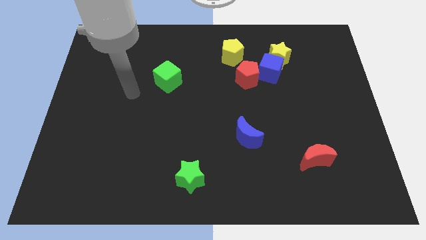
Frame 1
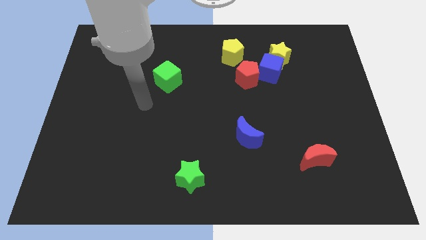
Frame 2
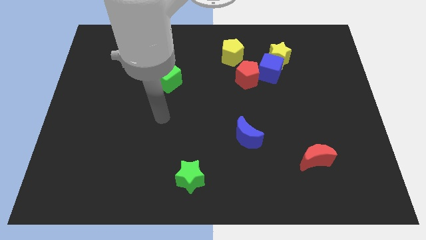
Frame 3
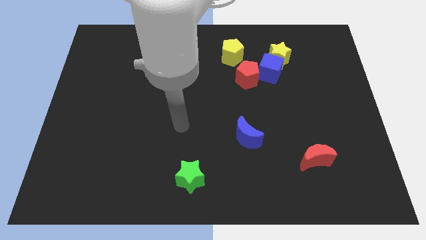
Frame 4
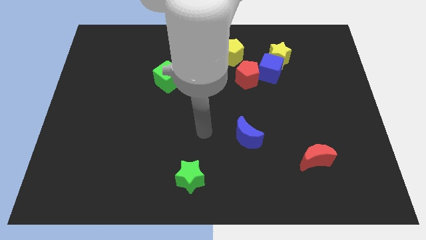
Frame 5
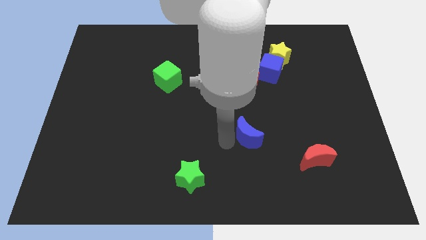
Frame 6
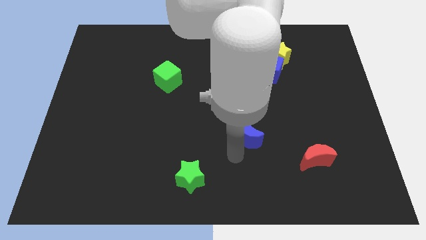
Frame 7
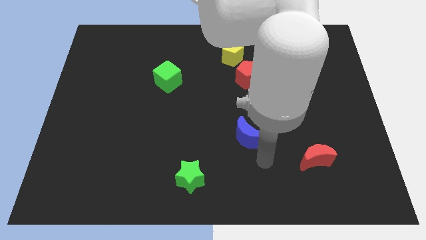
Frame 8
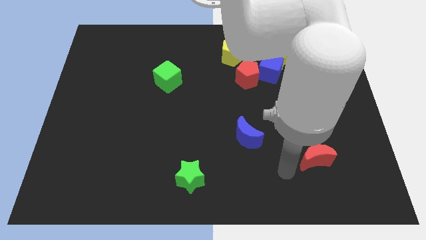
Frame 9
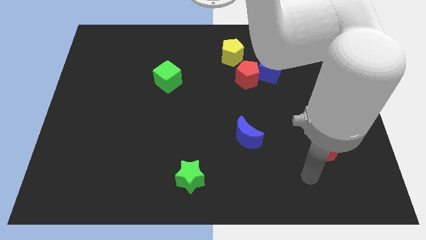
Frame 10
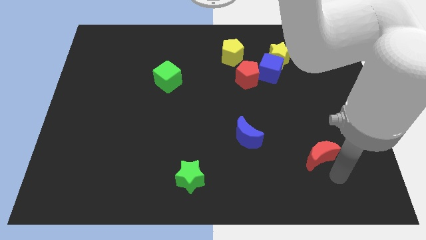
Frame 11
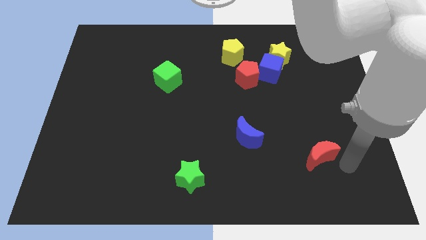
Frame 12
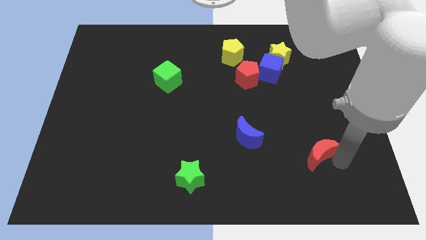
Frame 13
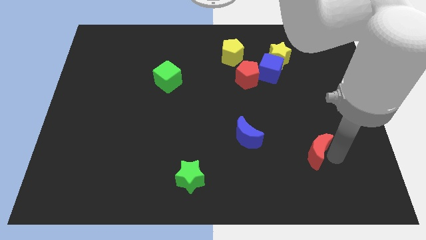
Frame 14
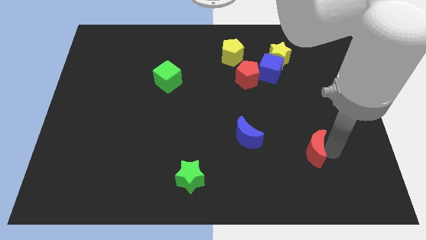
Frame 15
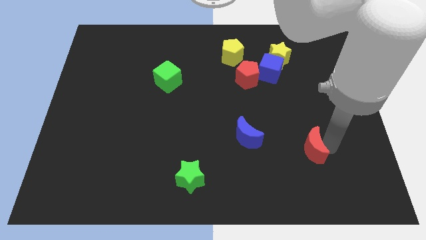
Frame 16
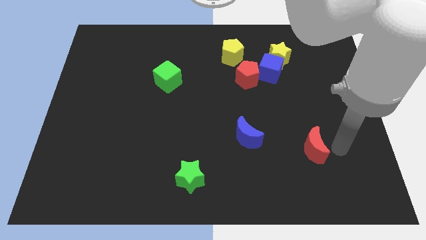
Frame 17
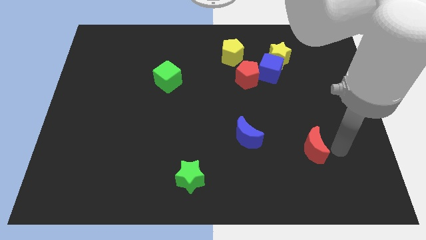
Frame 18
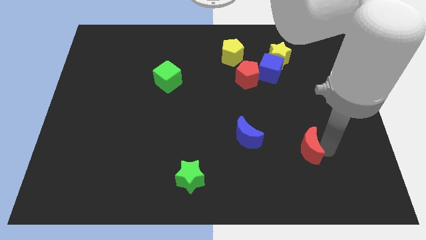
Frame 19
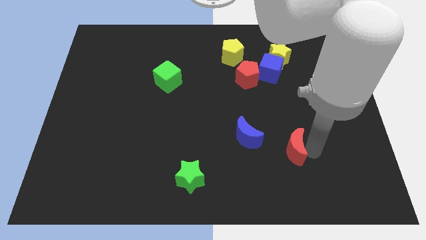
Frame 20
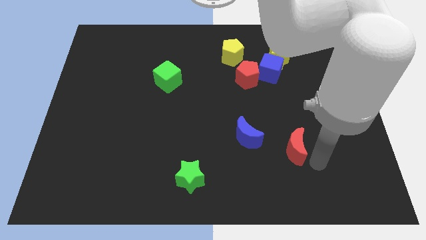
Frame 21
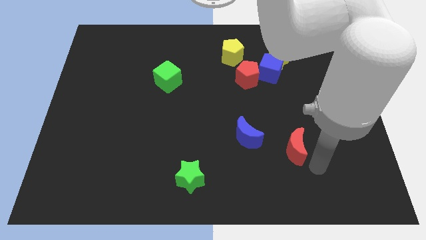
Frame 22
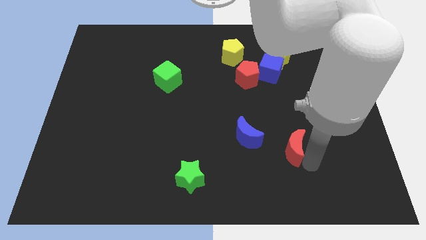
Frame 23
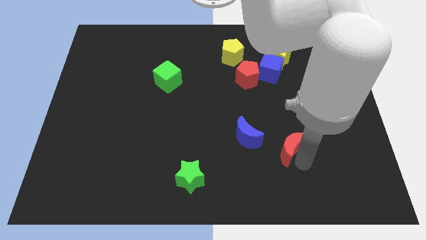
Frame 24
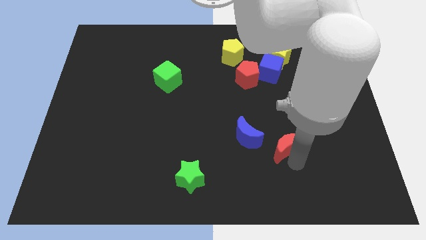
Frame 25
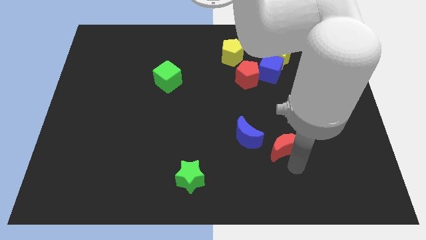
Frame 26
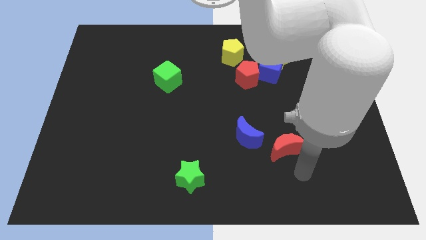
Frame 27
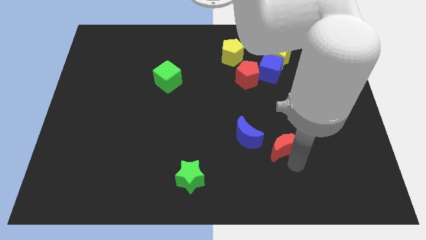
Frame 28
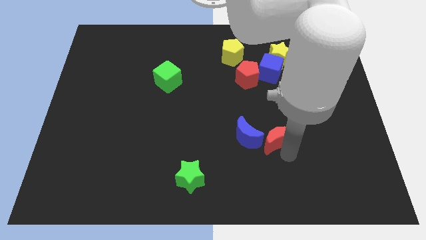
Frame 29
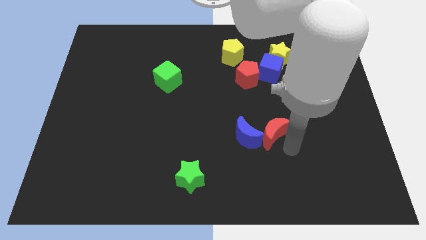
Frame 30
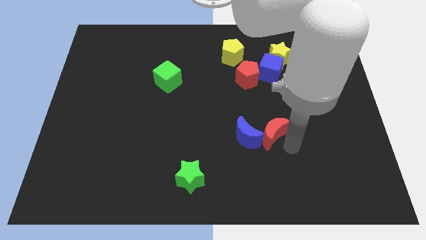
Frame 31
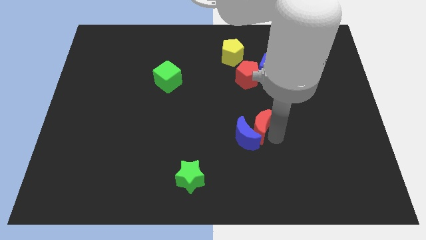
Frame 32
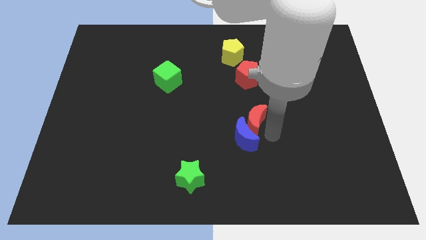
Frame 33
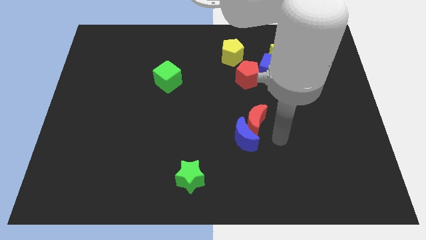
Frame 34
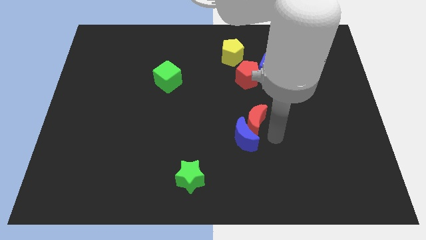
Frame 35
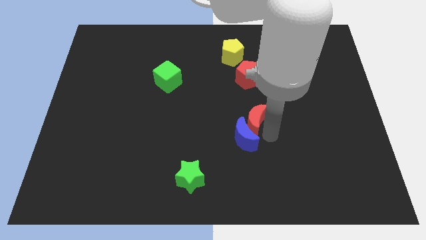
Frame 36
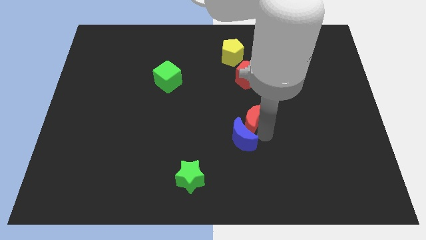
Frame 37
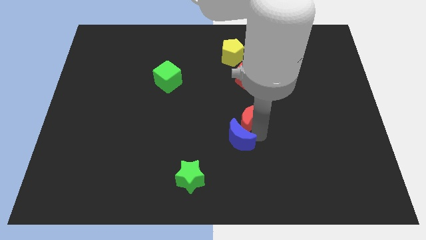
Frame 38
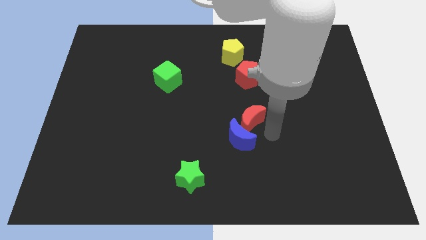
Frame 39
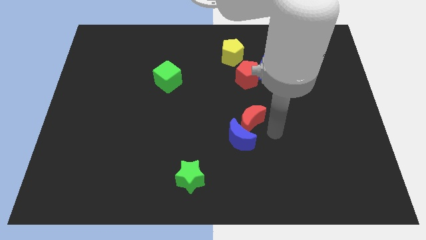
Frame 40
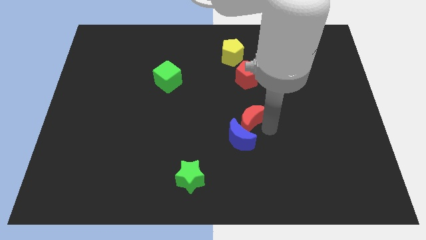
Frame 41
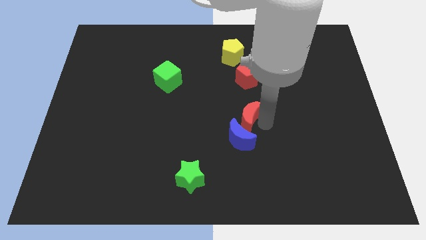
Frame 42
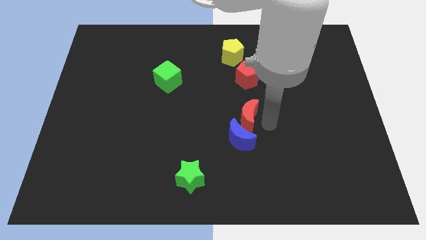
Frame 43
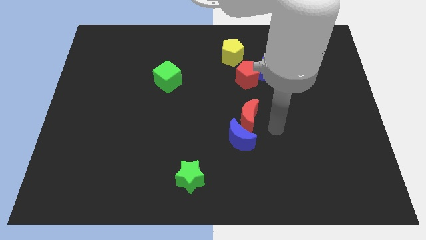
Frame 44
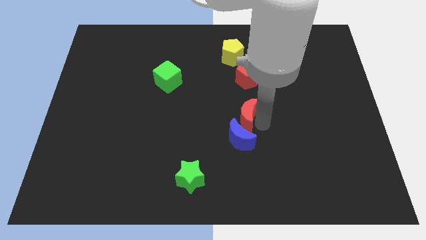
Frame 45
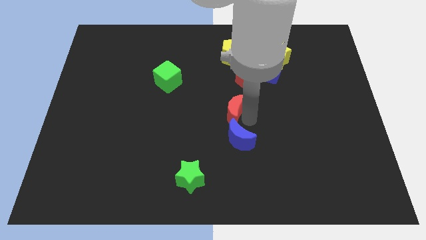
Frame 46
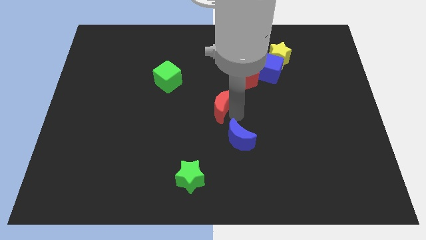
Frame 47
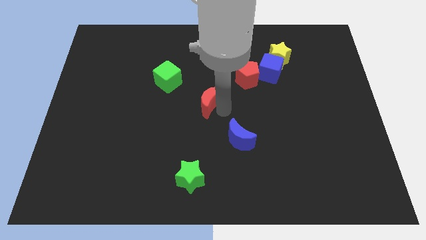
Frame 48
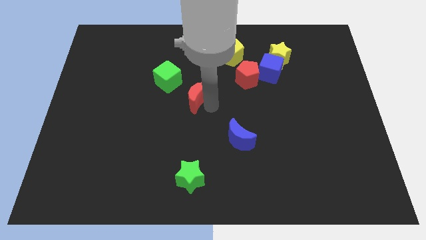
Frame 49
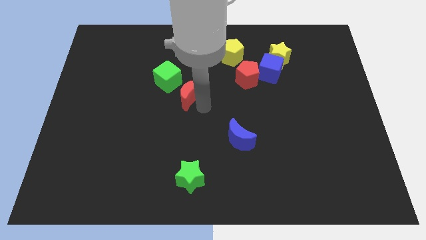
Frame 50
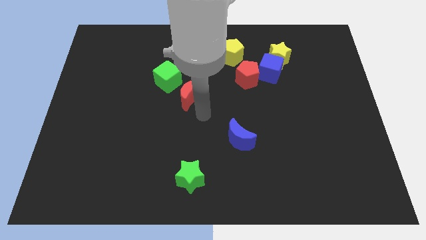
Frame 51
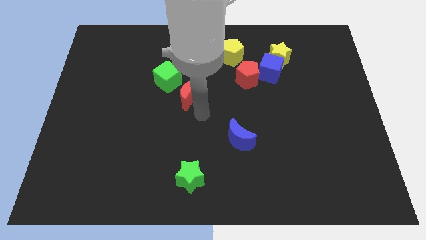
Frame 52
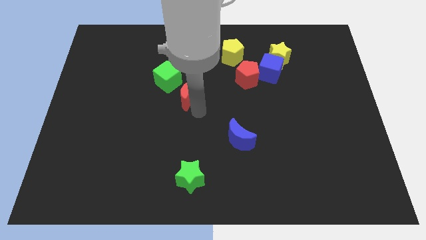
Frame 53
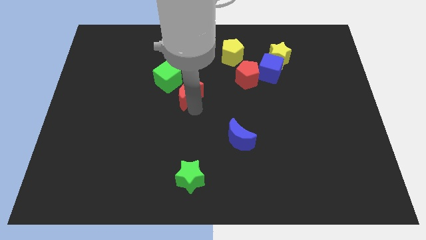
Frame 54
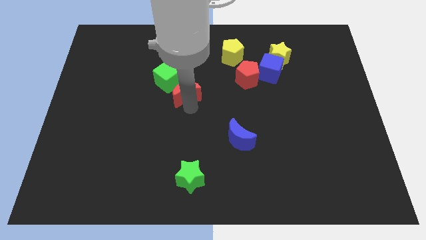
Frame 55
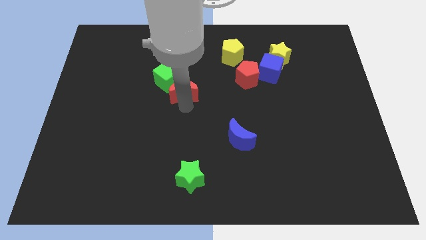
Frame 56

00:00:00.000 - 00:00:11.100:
slide the red moon towards the green cube

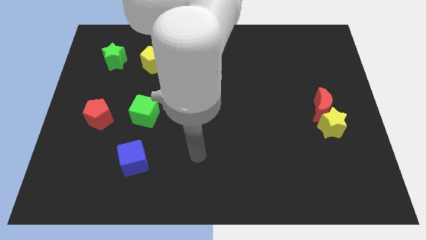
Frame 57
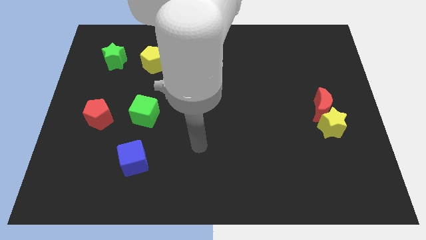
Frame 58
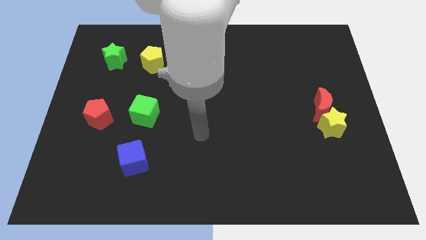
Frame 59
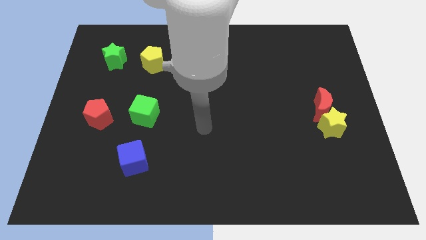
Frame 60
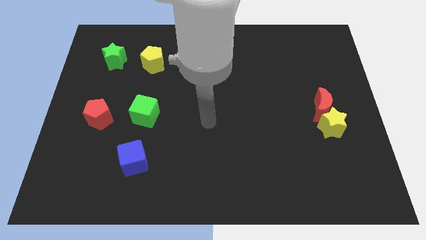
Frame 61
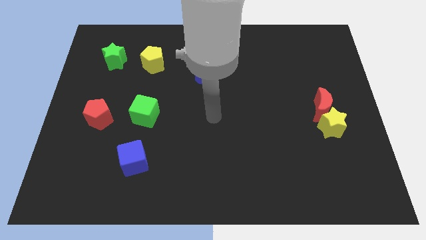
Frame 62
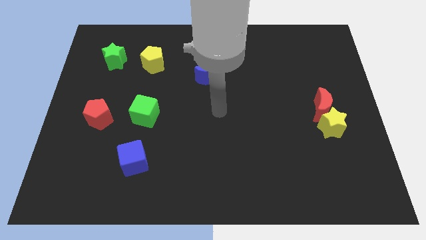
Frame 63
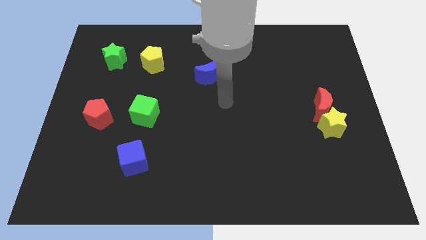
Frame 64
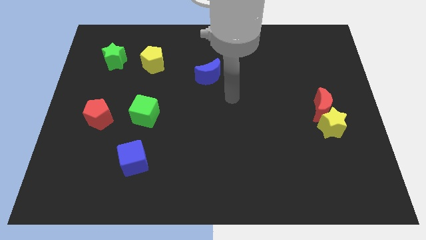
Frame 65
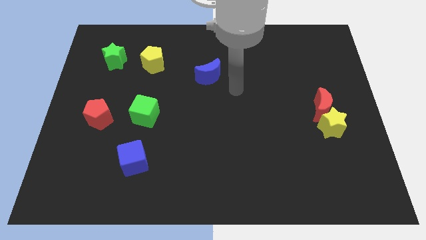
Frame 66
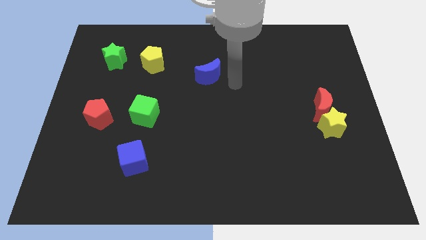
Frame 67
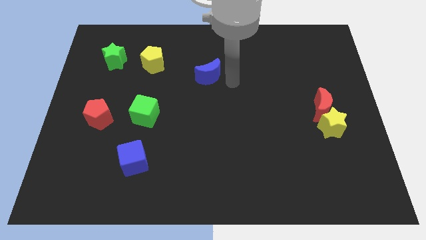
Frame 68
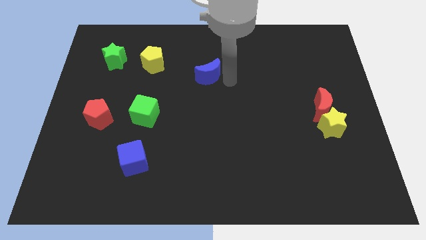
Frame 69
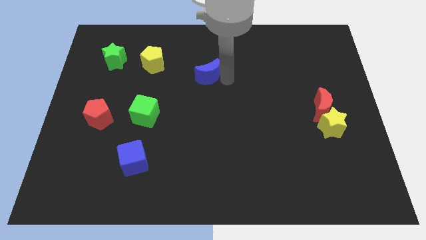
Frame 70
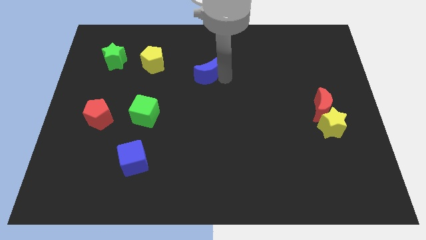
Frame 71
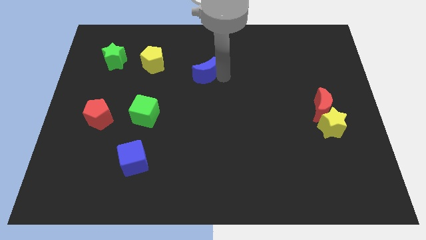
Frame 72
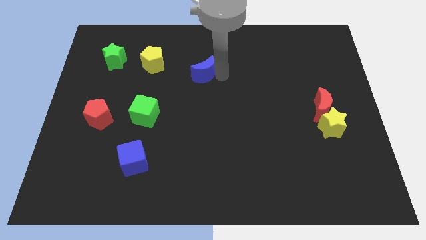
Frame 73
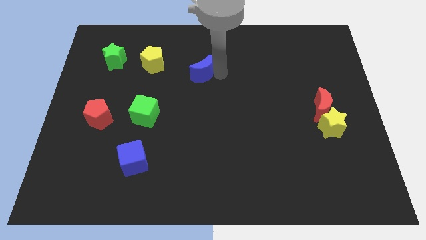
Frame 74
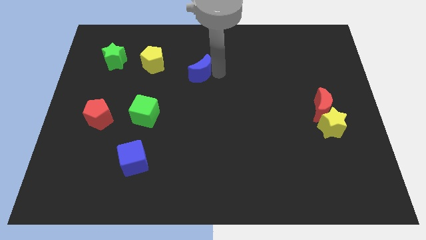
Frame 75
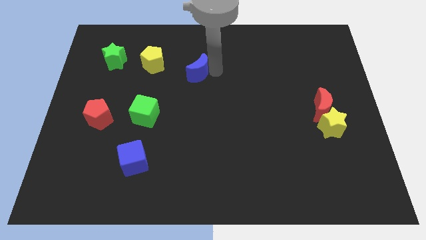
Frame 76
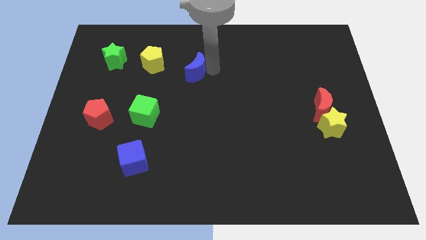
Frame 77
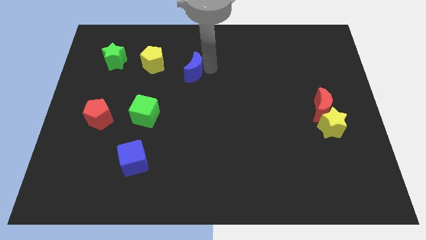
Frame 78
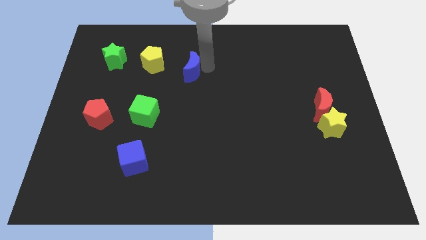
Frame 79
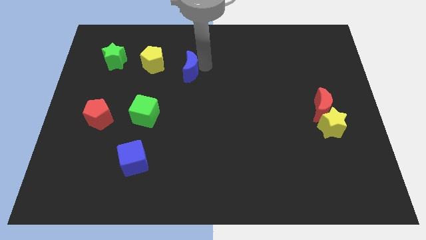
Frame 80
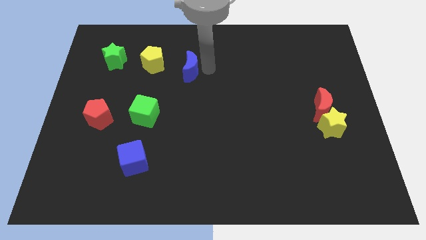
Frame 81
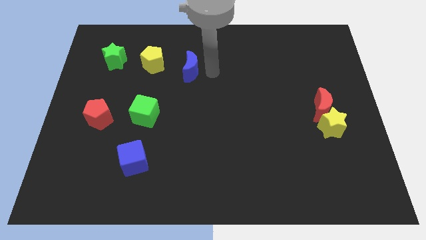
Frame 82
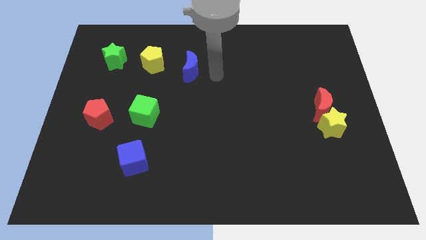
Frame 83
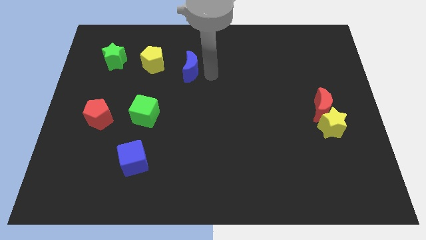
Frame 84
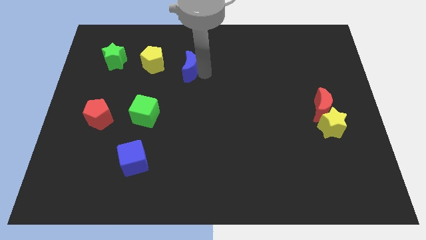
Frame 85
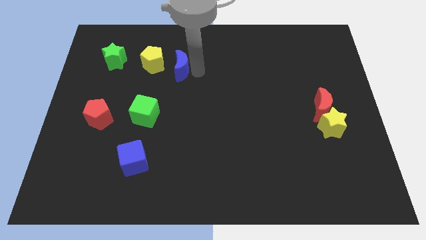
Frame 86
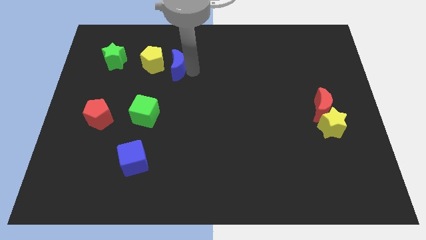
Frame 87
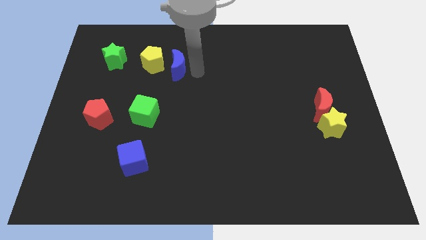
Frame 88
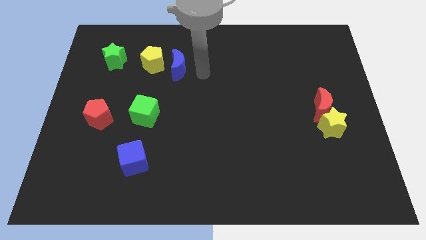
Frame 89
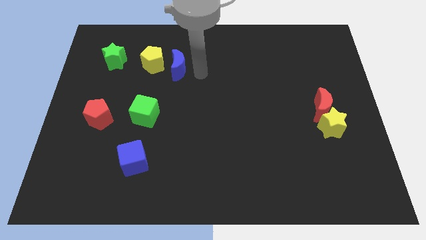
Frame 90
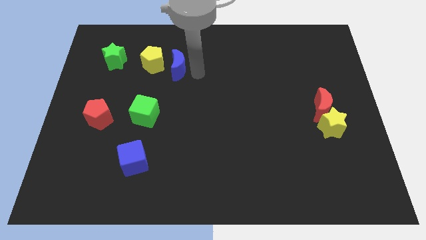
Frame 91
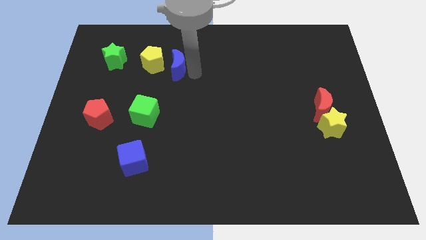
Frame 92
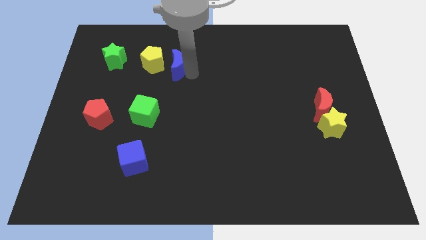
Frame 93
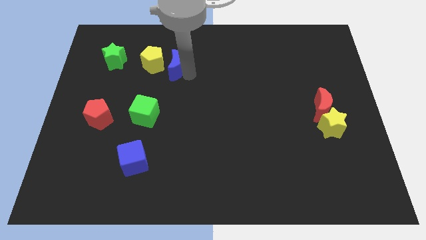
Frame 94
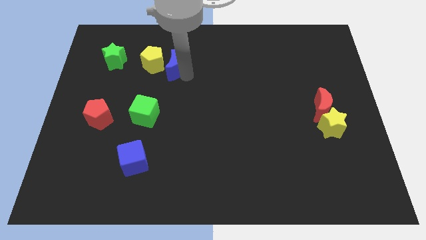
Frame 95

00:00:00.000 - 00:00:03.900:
push the blue moon towards the yellow pentagon
